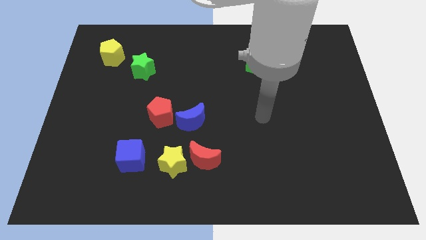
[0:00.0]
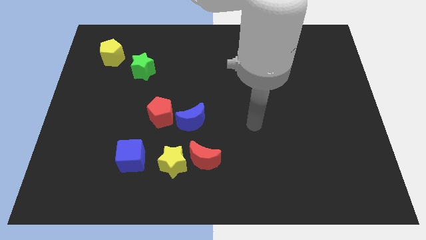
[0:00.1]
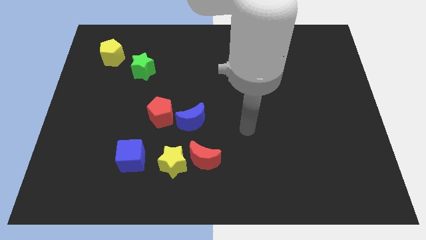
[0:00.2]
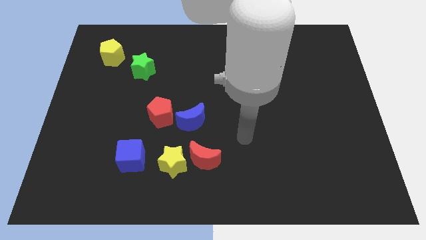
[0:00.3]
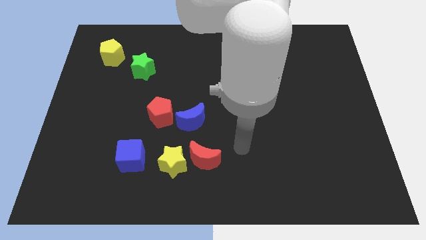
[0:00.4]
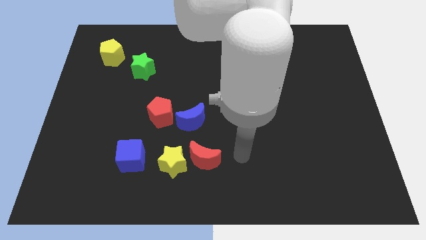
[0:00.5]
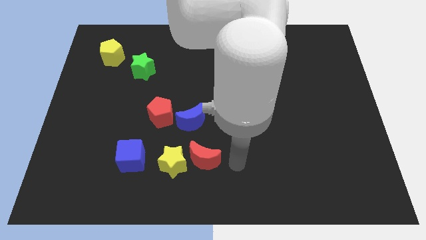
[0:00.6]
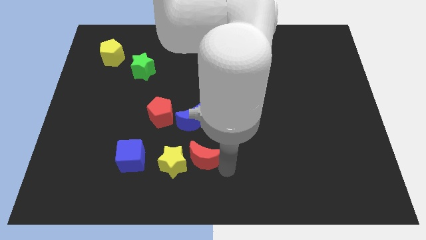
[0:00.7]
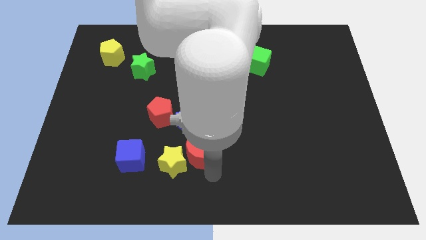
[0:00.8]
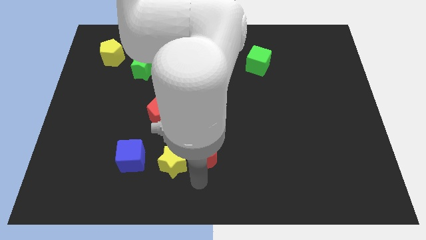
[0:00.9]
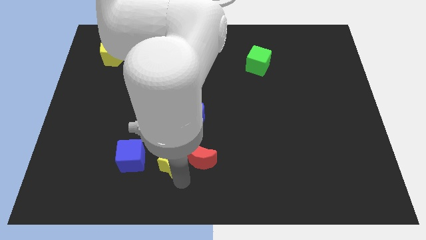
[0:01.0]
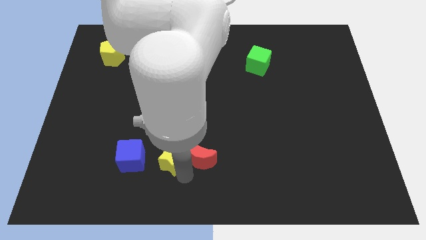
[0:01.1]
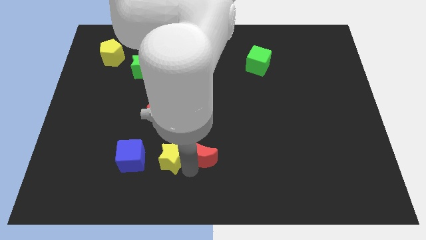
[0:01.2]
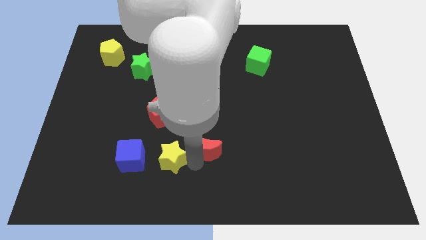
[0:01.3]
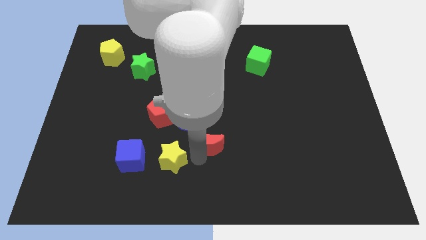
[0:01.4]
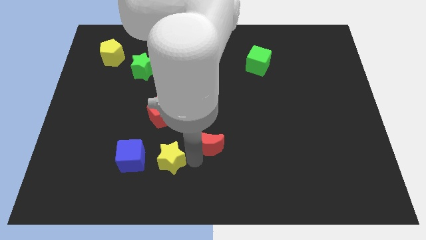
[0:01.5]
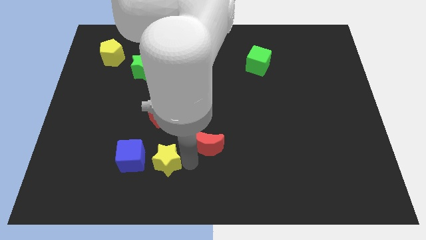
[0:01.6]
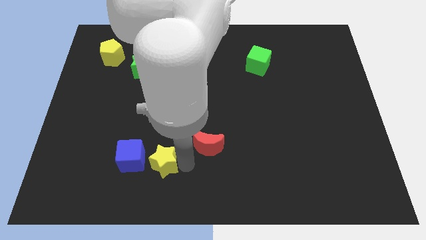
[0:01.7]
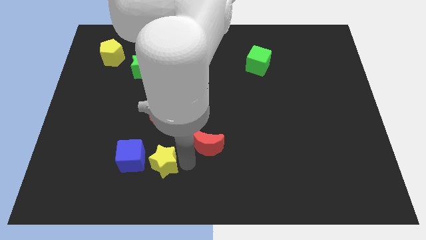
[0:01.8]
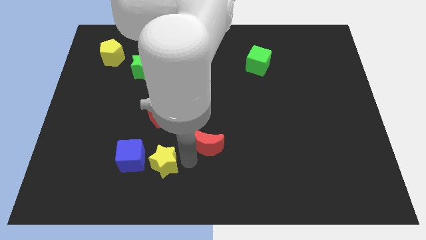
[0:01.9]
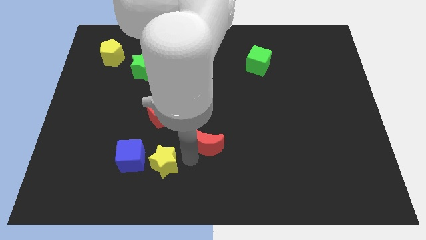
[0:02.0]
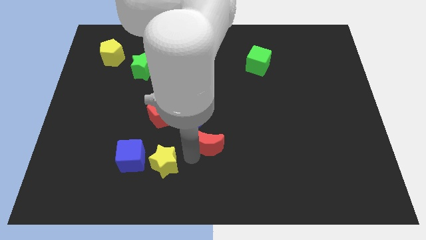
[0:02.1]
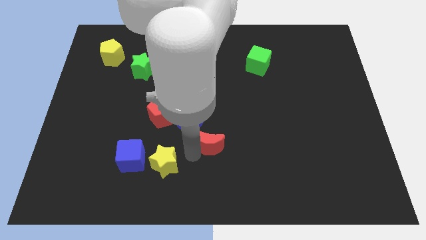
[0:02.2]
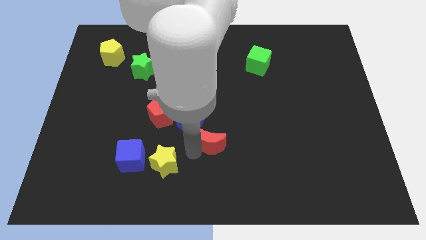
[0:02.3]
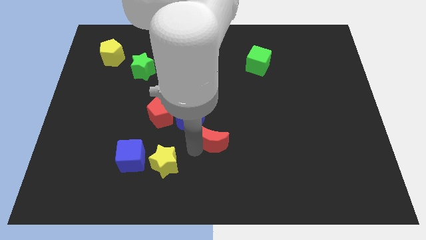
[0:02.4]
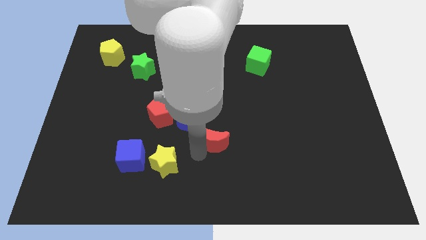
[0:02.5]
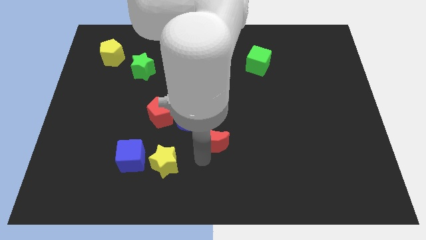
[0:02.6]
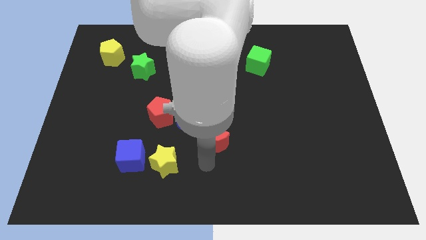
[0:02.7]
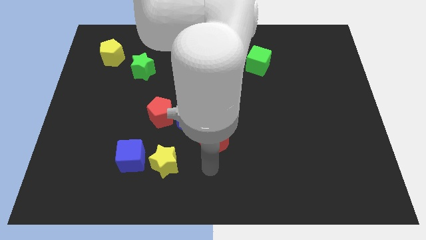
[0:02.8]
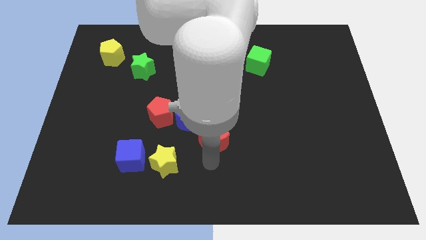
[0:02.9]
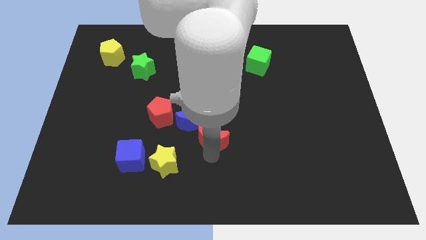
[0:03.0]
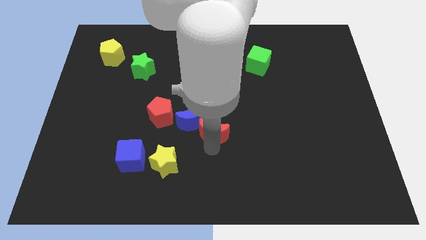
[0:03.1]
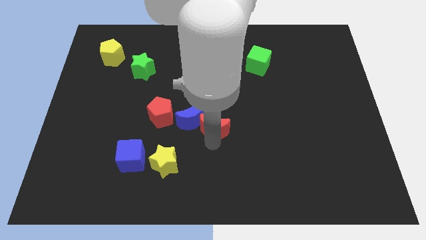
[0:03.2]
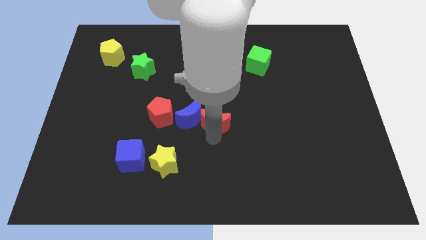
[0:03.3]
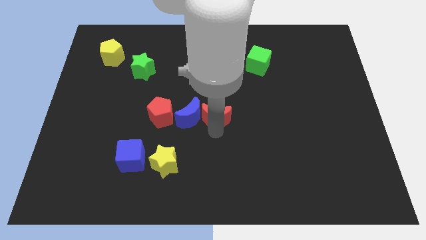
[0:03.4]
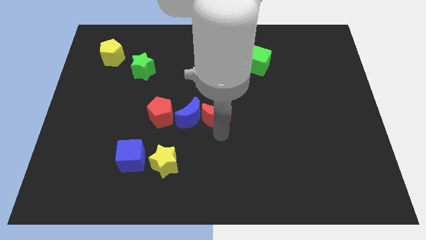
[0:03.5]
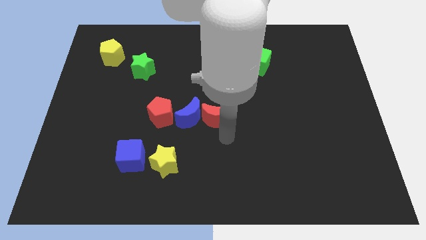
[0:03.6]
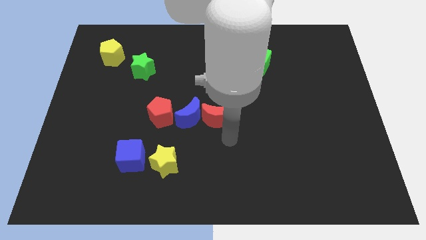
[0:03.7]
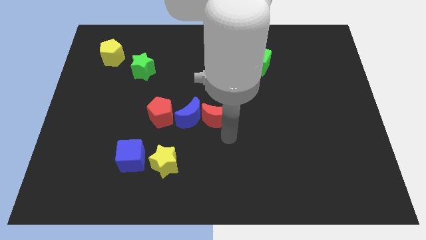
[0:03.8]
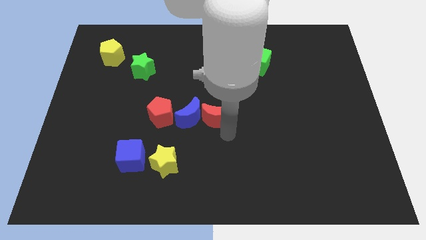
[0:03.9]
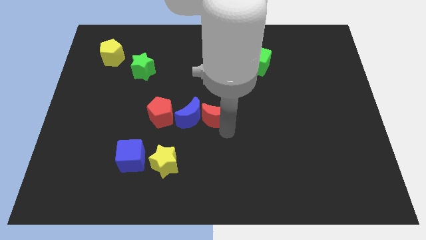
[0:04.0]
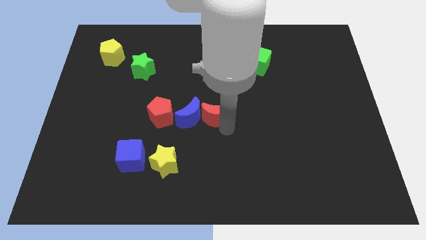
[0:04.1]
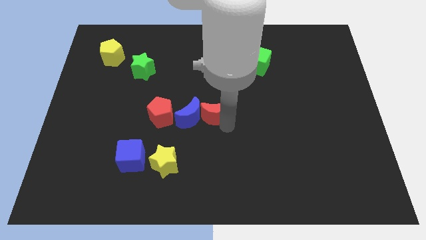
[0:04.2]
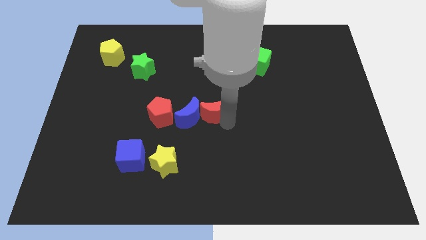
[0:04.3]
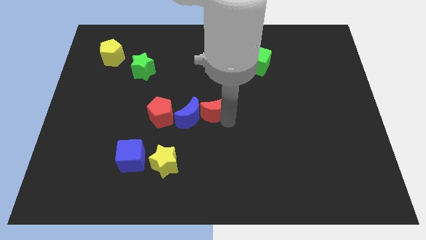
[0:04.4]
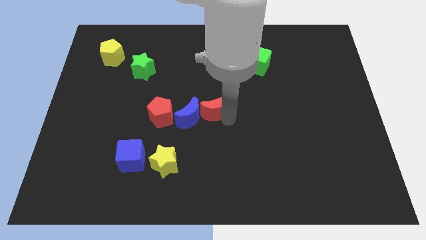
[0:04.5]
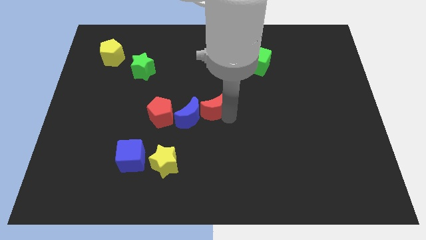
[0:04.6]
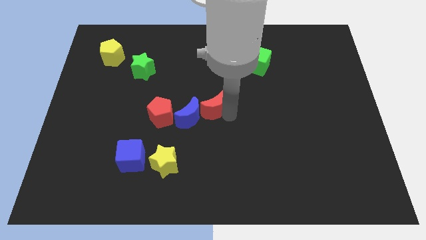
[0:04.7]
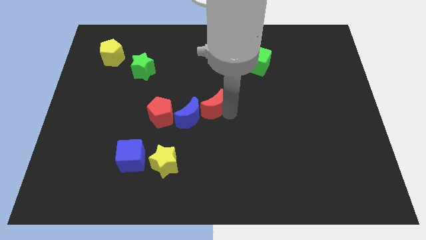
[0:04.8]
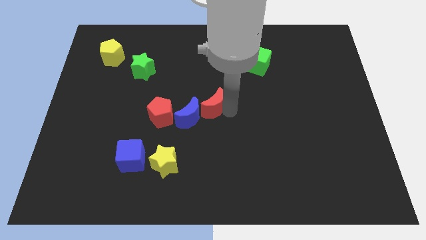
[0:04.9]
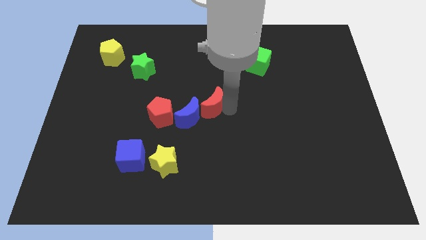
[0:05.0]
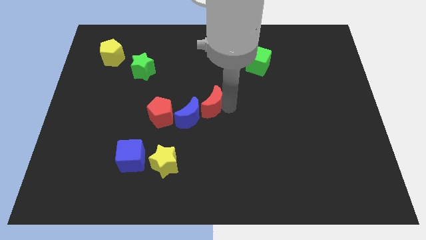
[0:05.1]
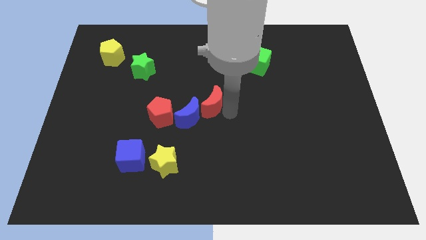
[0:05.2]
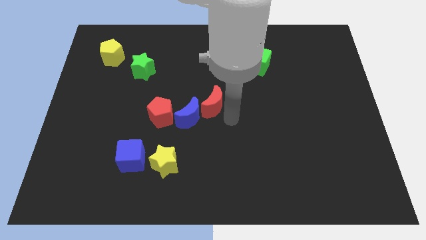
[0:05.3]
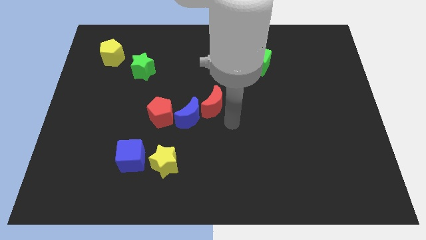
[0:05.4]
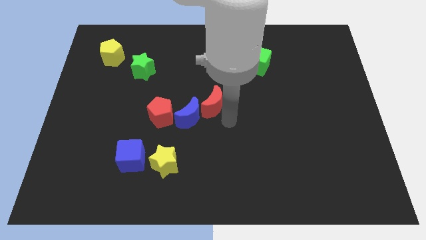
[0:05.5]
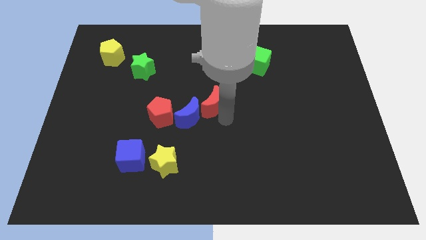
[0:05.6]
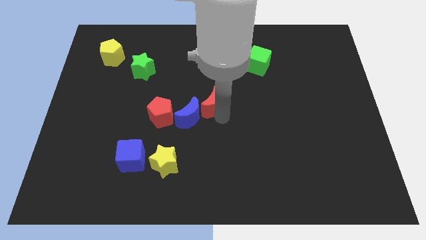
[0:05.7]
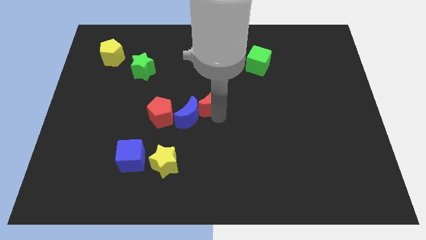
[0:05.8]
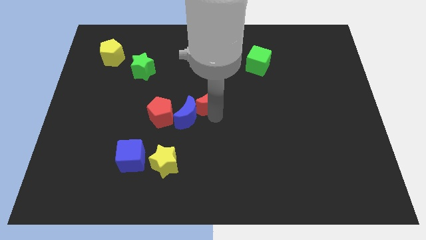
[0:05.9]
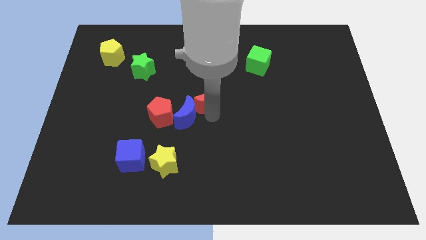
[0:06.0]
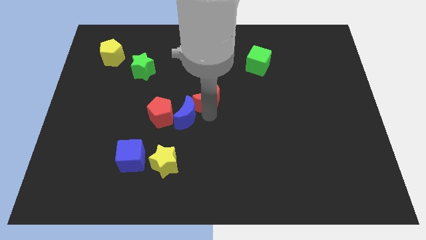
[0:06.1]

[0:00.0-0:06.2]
push the red moon to the top of the blue moon

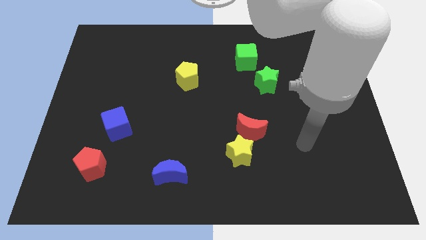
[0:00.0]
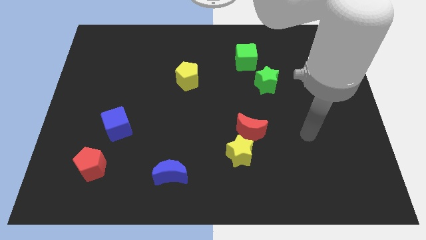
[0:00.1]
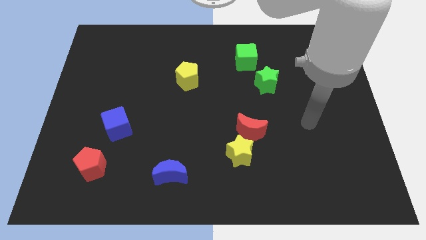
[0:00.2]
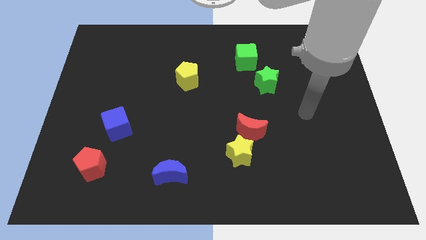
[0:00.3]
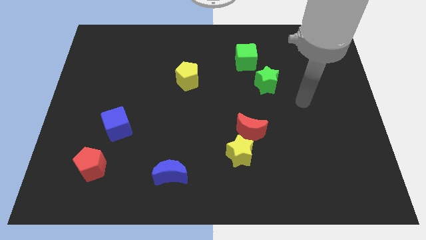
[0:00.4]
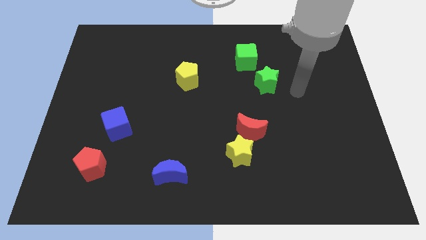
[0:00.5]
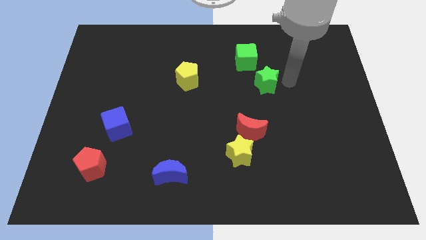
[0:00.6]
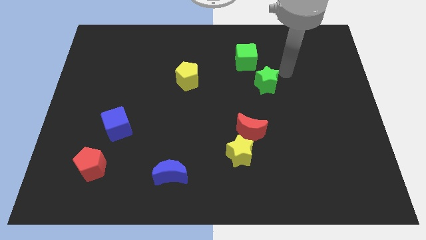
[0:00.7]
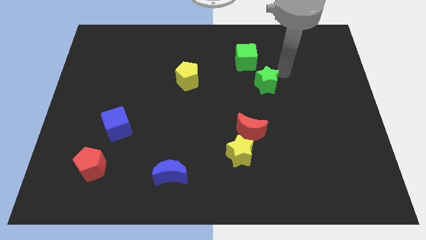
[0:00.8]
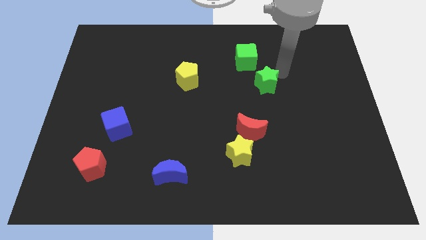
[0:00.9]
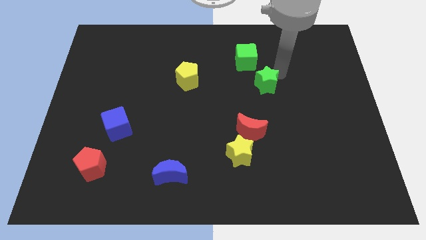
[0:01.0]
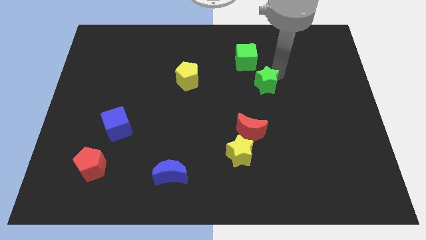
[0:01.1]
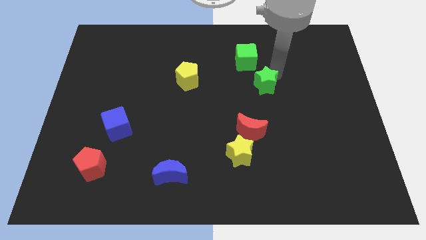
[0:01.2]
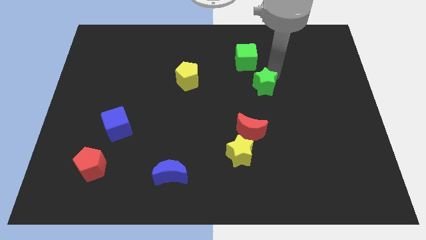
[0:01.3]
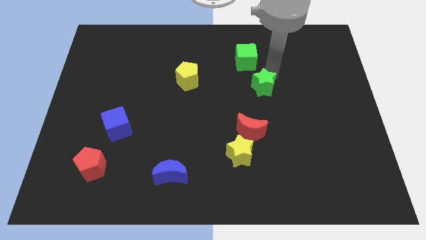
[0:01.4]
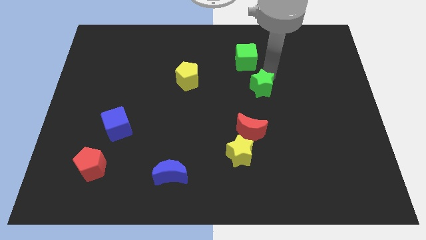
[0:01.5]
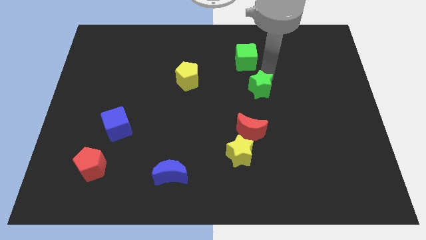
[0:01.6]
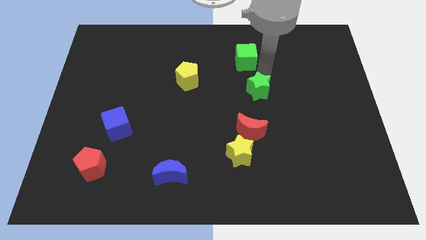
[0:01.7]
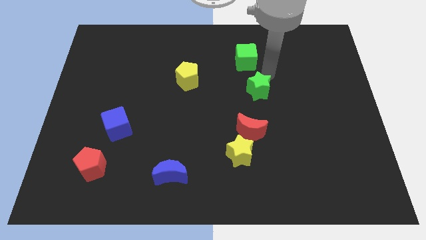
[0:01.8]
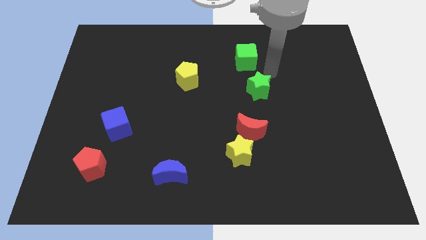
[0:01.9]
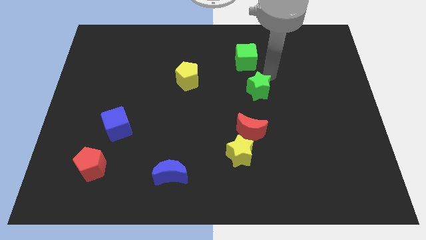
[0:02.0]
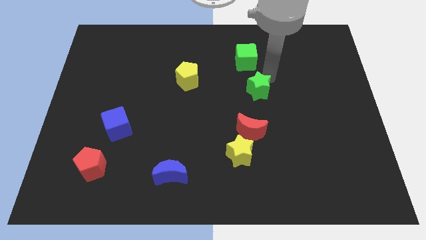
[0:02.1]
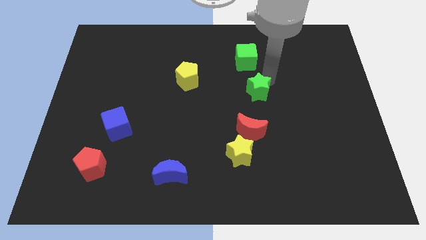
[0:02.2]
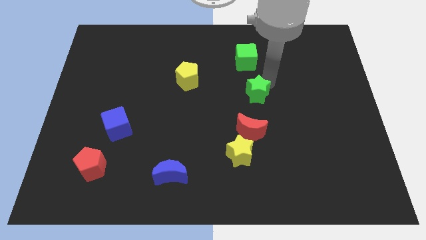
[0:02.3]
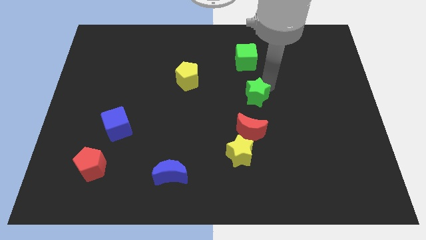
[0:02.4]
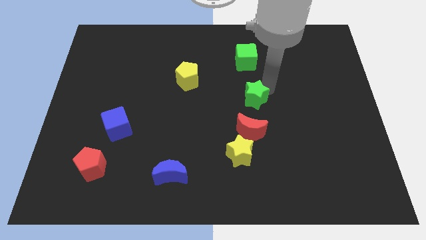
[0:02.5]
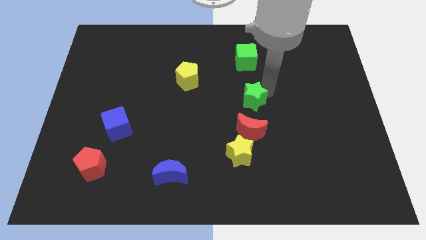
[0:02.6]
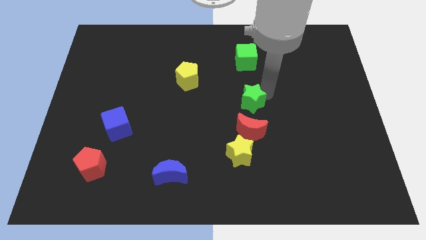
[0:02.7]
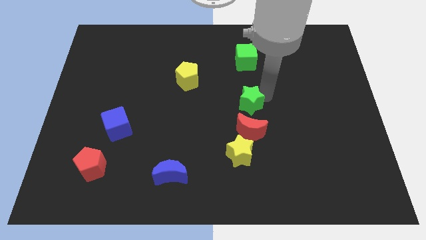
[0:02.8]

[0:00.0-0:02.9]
push the green star above the yellow star
